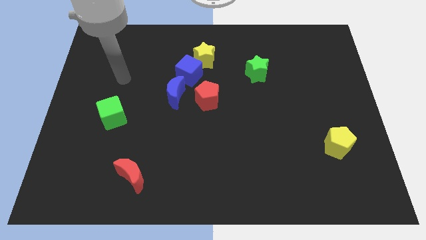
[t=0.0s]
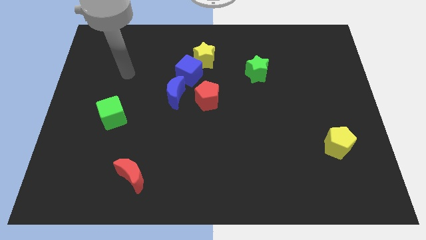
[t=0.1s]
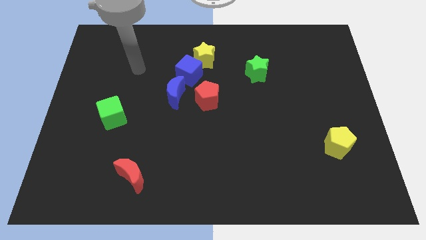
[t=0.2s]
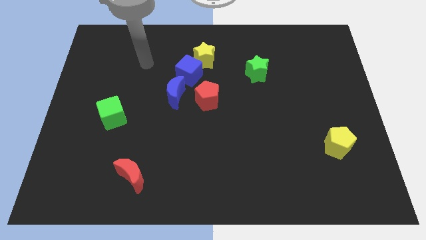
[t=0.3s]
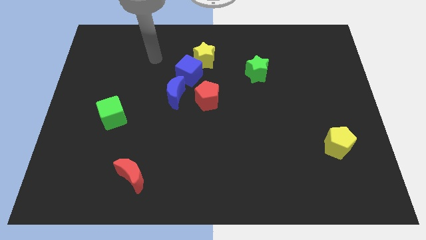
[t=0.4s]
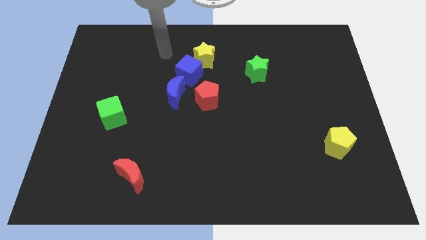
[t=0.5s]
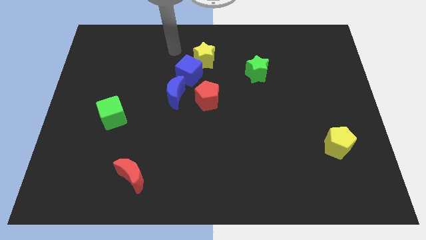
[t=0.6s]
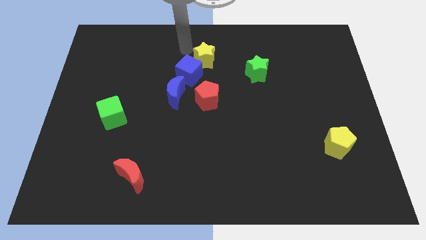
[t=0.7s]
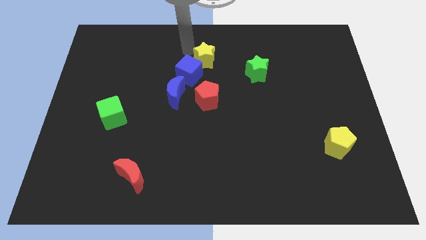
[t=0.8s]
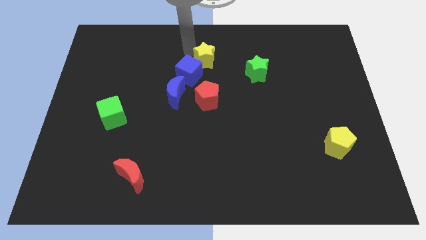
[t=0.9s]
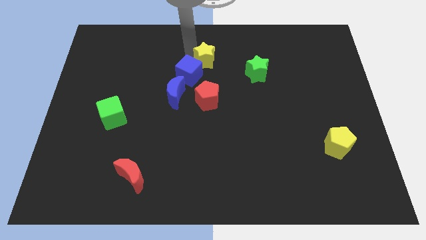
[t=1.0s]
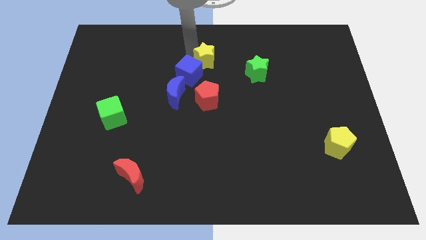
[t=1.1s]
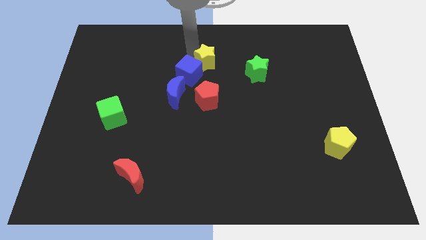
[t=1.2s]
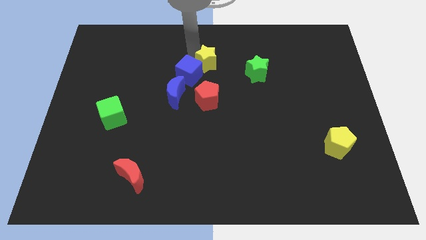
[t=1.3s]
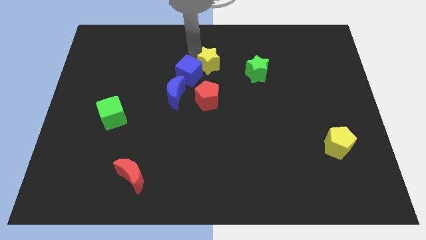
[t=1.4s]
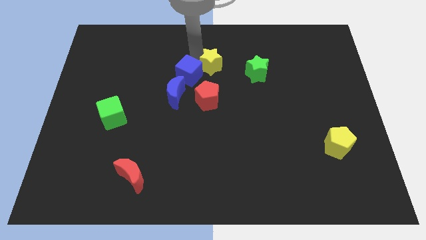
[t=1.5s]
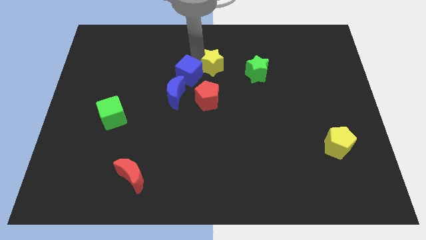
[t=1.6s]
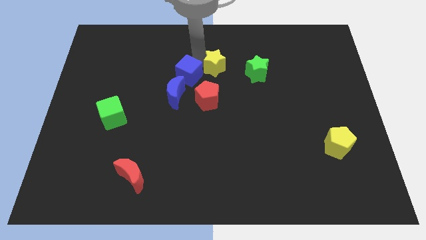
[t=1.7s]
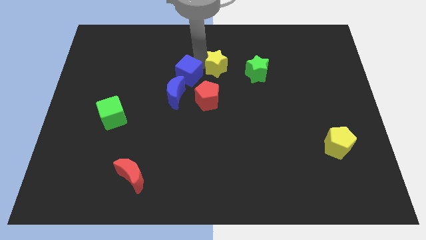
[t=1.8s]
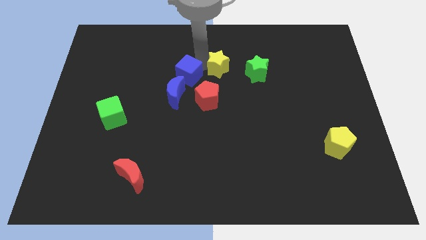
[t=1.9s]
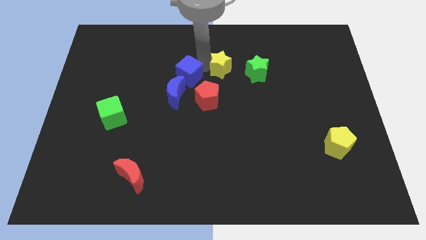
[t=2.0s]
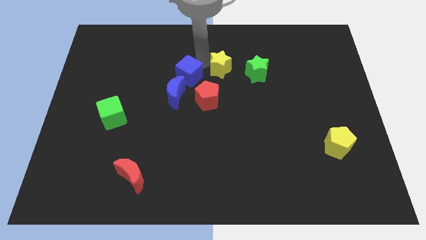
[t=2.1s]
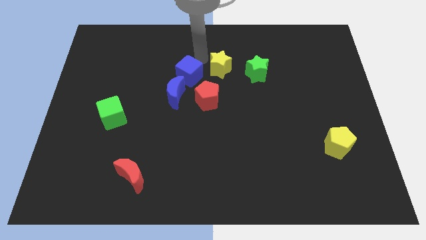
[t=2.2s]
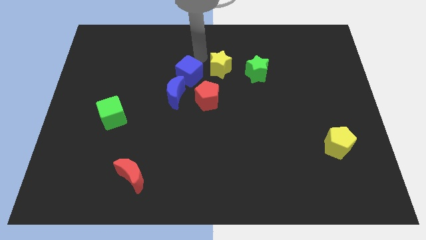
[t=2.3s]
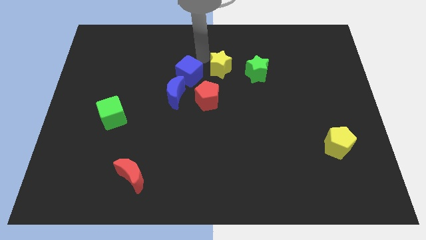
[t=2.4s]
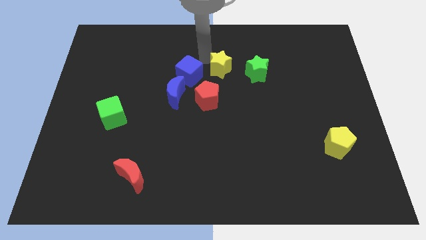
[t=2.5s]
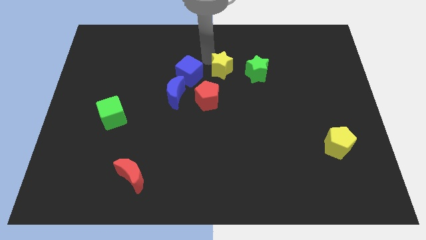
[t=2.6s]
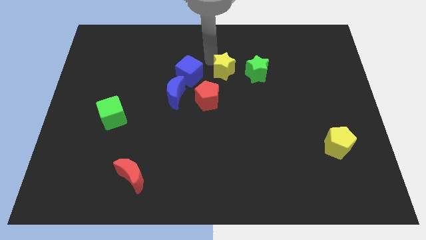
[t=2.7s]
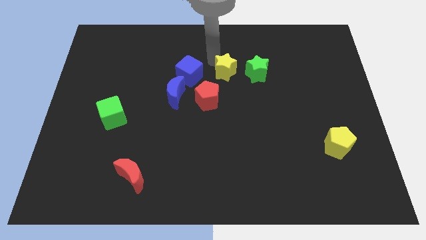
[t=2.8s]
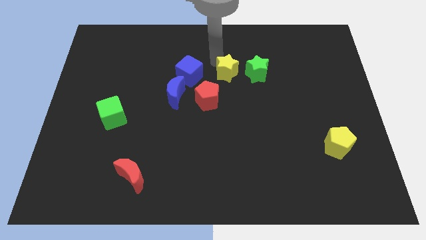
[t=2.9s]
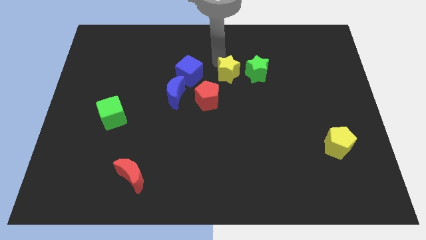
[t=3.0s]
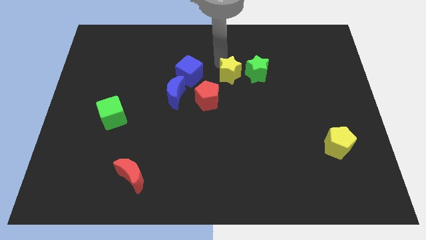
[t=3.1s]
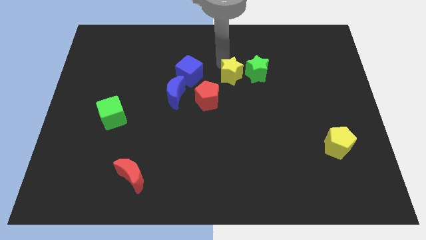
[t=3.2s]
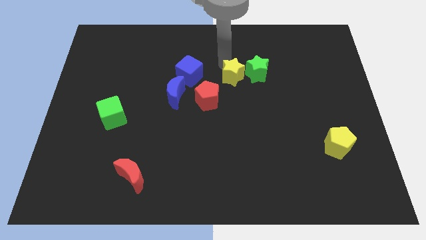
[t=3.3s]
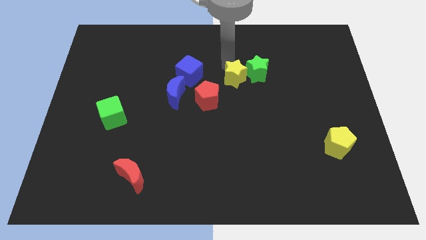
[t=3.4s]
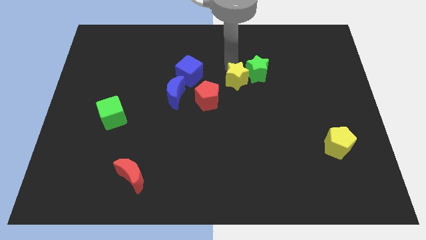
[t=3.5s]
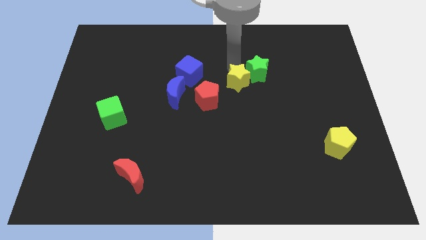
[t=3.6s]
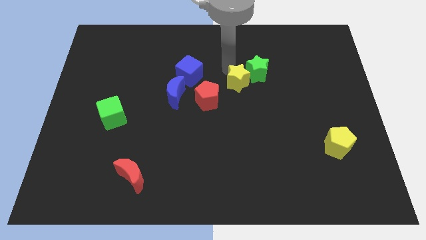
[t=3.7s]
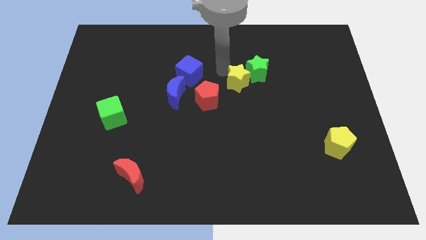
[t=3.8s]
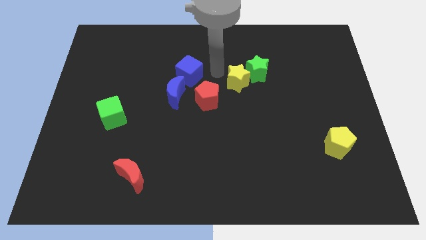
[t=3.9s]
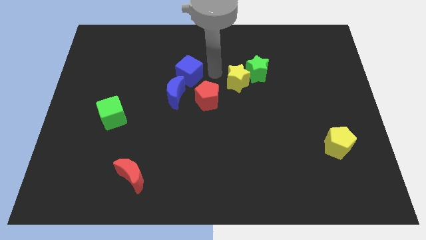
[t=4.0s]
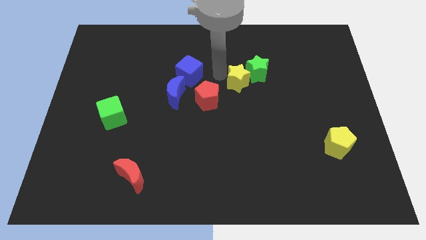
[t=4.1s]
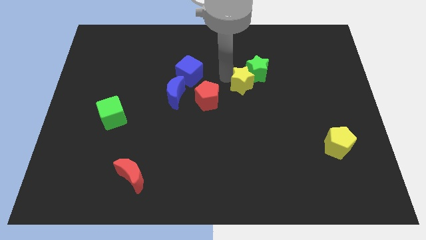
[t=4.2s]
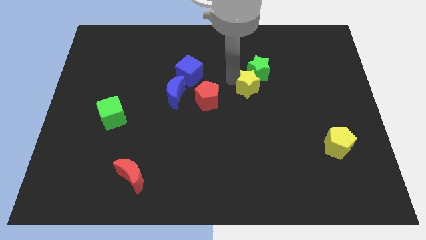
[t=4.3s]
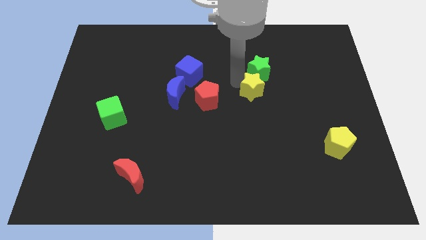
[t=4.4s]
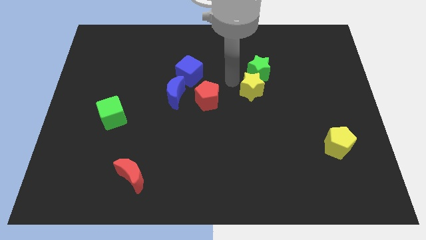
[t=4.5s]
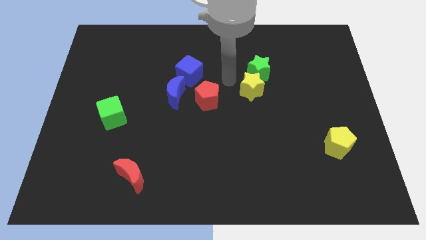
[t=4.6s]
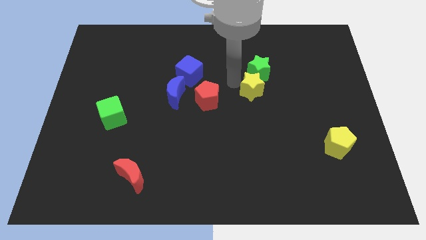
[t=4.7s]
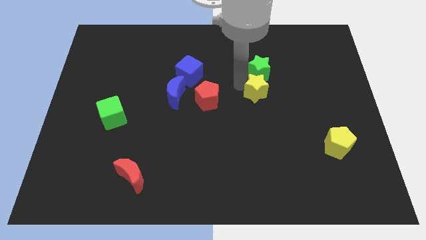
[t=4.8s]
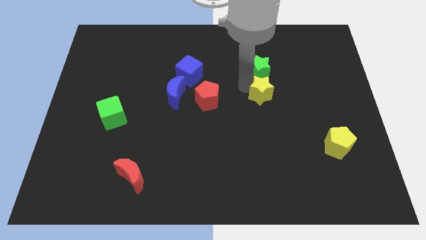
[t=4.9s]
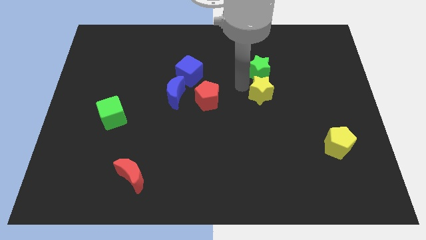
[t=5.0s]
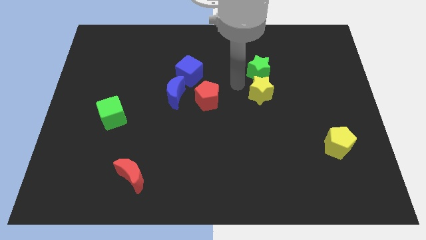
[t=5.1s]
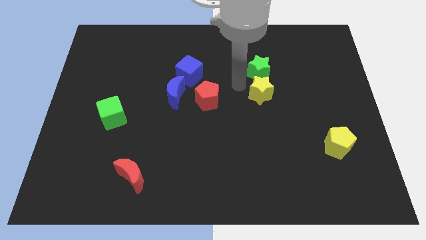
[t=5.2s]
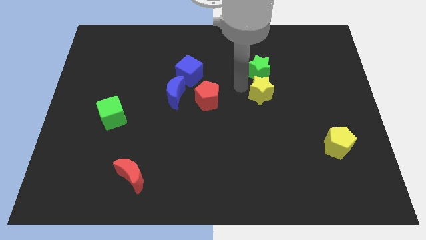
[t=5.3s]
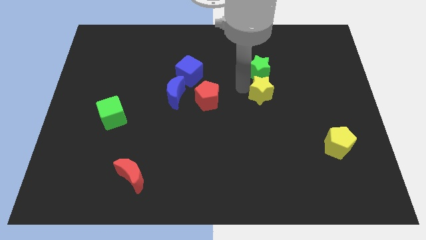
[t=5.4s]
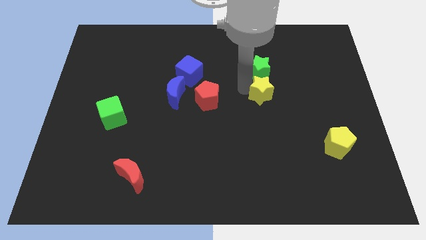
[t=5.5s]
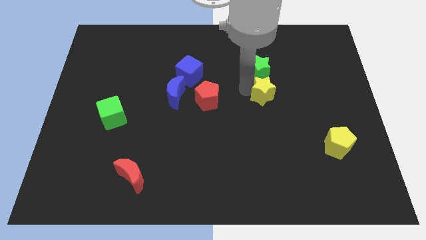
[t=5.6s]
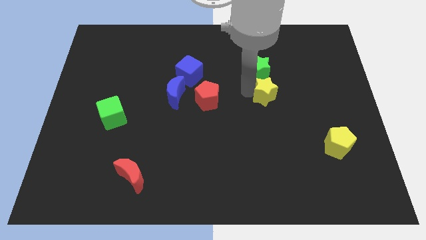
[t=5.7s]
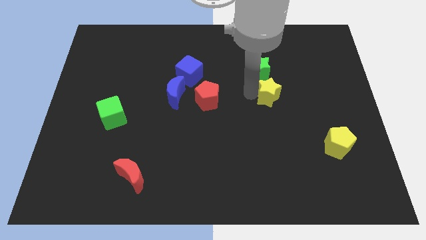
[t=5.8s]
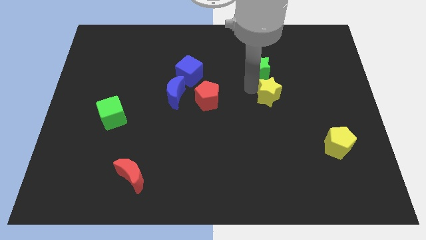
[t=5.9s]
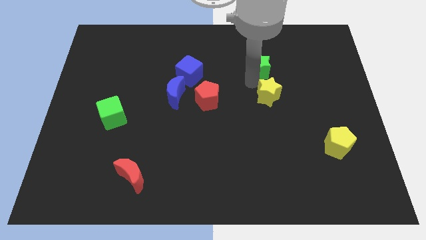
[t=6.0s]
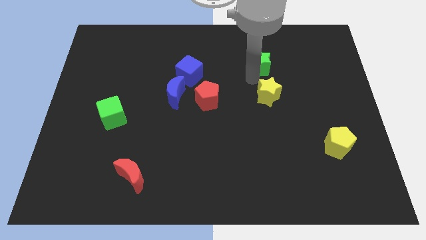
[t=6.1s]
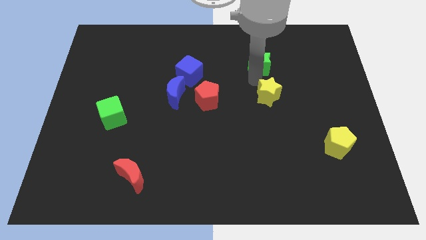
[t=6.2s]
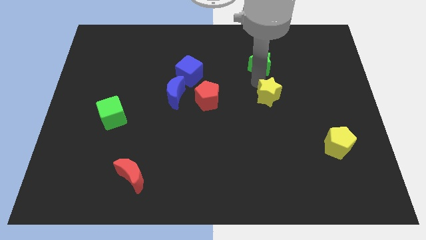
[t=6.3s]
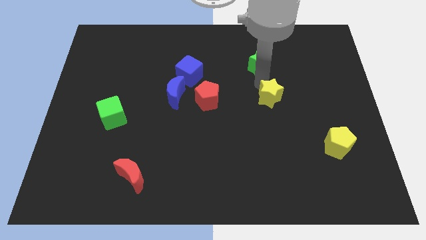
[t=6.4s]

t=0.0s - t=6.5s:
move the yellow star down and right diagonally

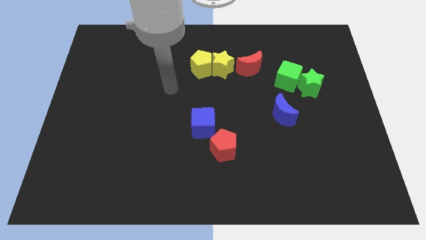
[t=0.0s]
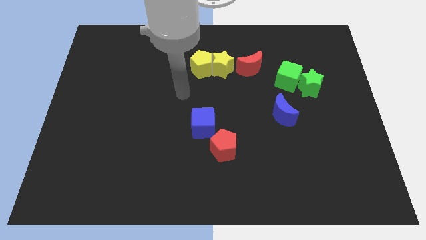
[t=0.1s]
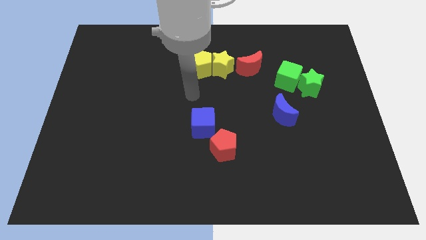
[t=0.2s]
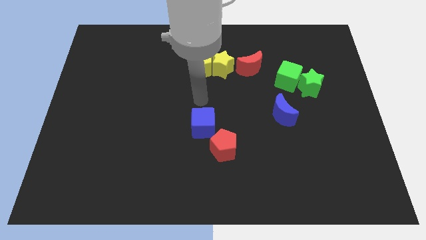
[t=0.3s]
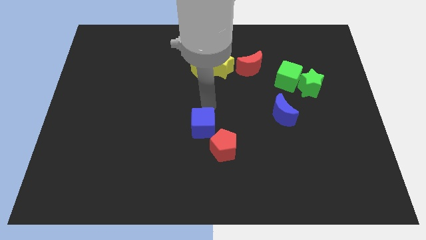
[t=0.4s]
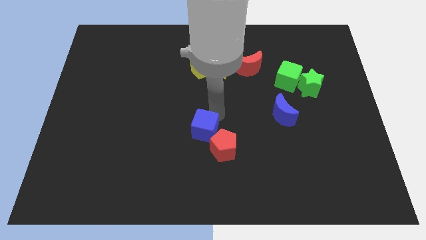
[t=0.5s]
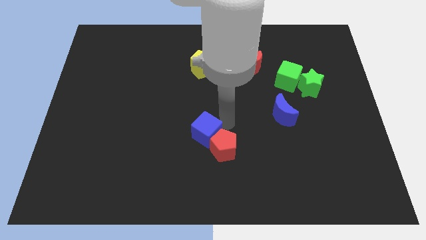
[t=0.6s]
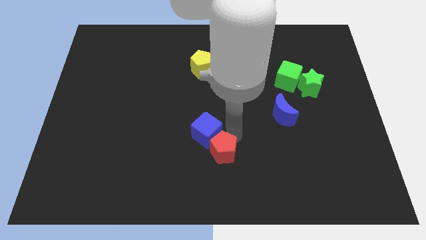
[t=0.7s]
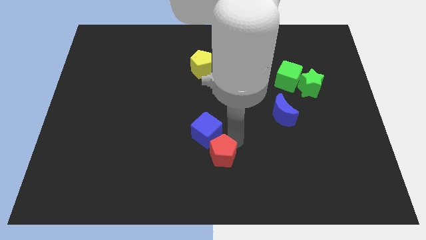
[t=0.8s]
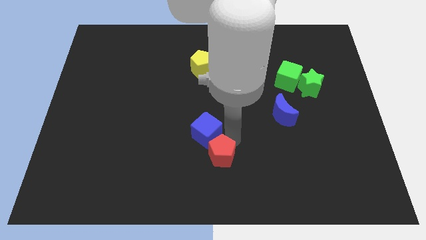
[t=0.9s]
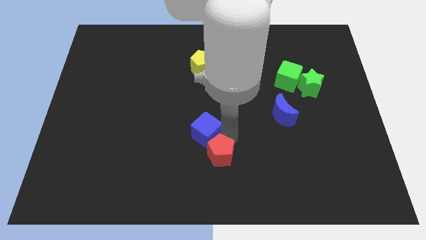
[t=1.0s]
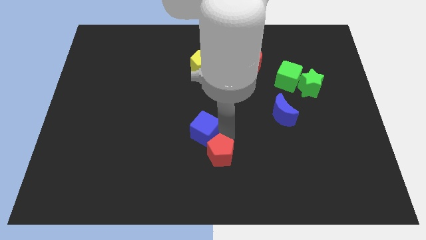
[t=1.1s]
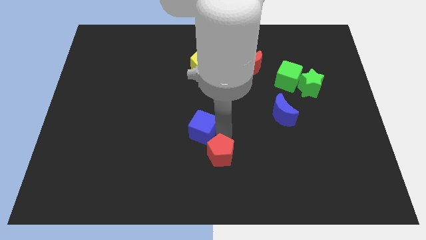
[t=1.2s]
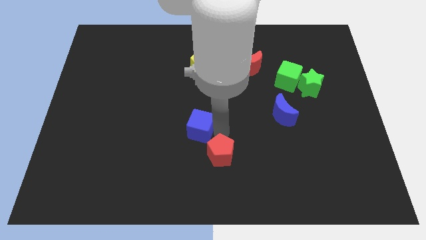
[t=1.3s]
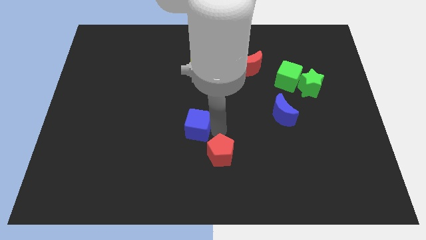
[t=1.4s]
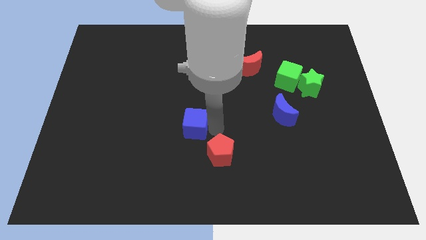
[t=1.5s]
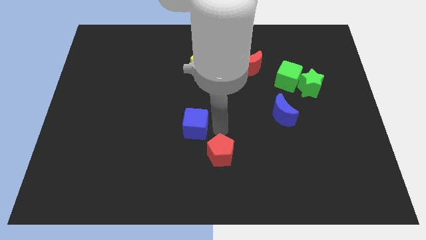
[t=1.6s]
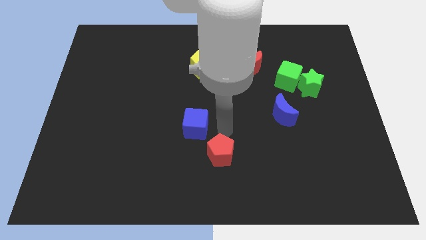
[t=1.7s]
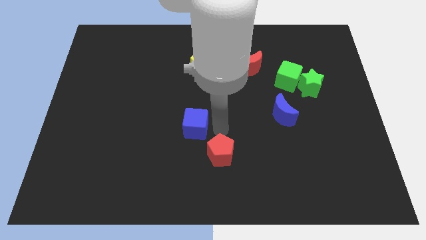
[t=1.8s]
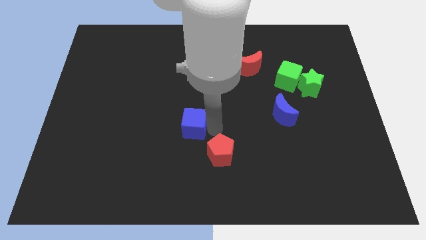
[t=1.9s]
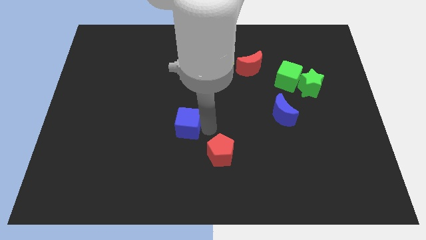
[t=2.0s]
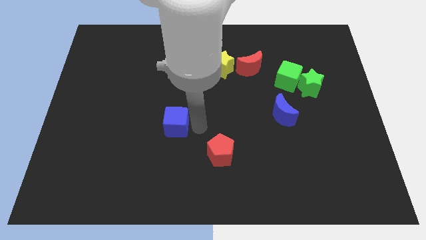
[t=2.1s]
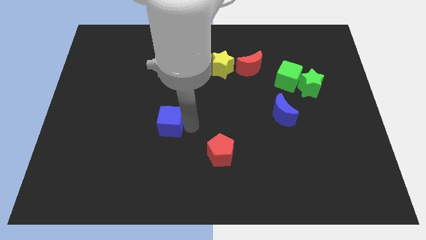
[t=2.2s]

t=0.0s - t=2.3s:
slide the blue cube slightly left
